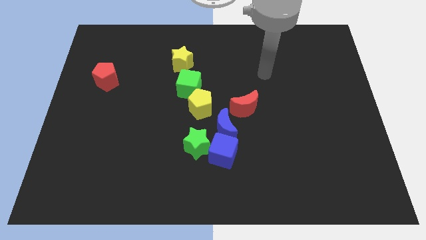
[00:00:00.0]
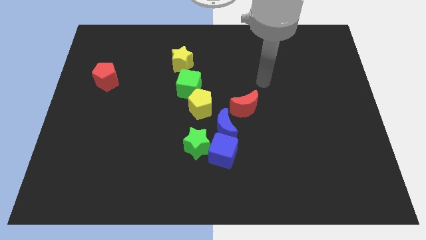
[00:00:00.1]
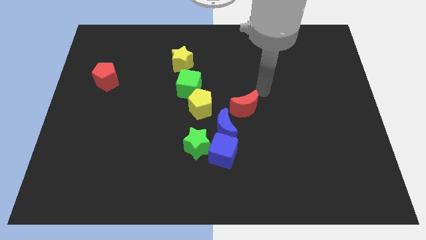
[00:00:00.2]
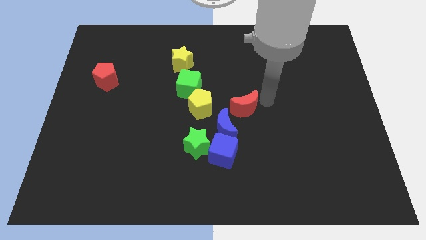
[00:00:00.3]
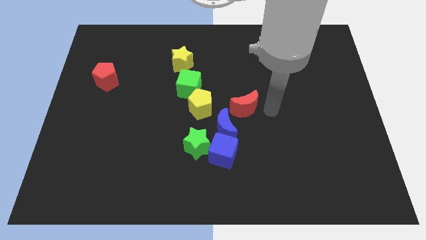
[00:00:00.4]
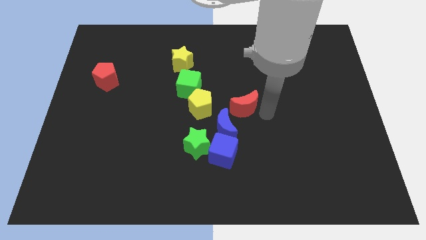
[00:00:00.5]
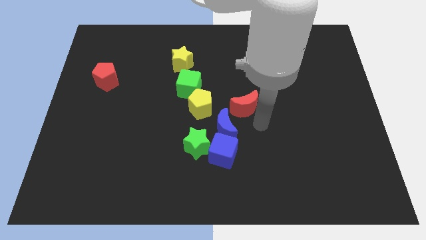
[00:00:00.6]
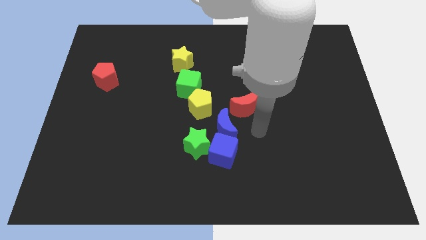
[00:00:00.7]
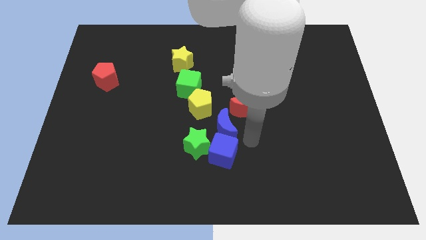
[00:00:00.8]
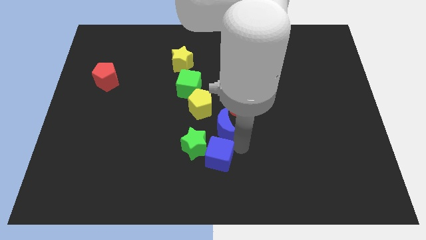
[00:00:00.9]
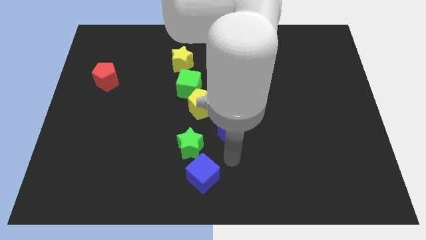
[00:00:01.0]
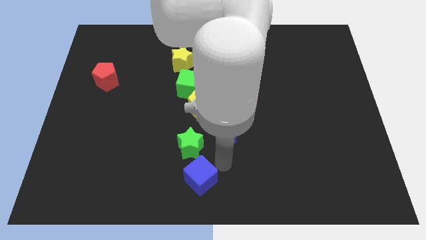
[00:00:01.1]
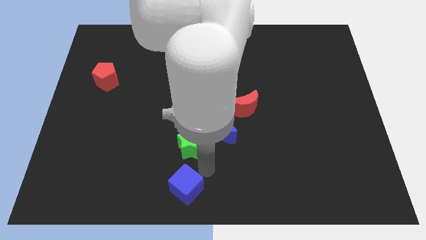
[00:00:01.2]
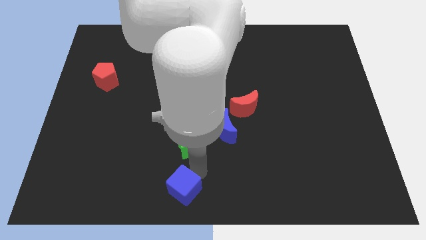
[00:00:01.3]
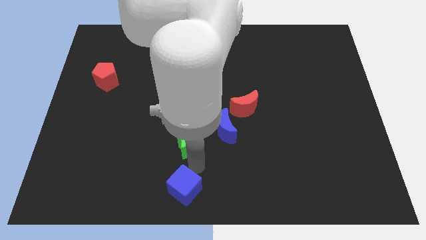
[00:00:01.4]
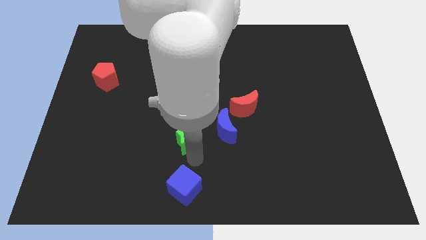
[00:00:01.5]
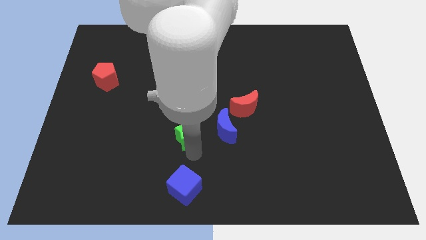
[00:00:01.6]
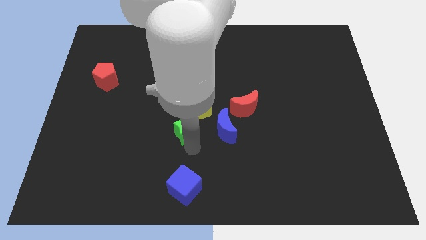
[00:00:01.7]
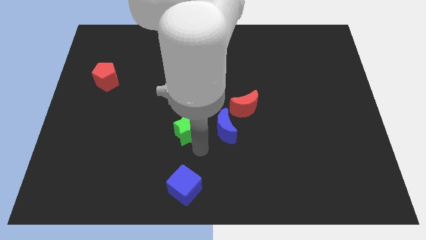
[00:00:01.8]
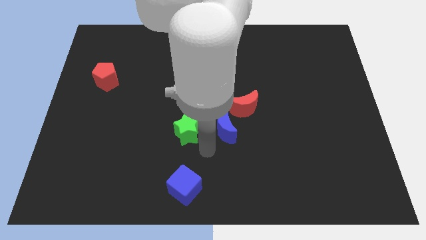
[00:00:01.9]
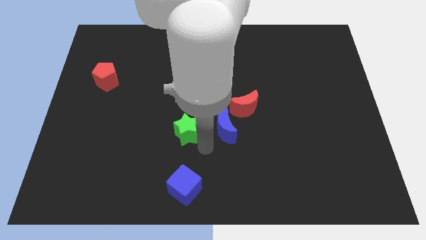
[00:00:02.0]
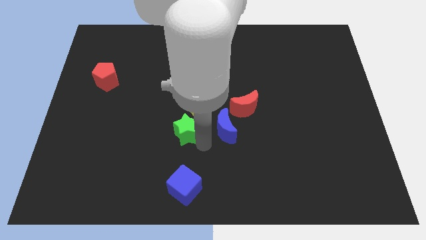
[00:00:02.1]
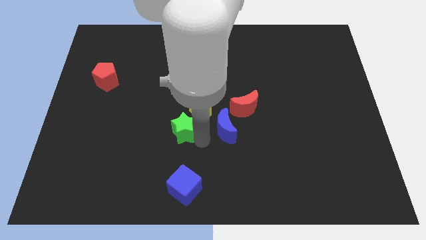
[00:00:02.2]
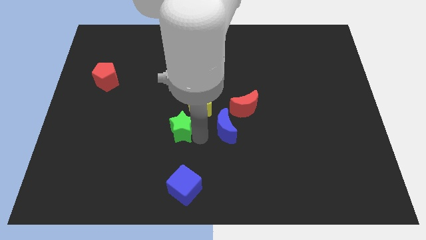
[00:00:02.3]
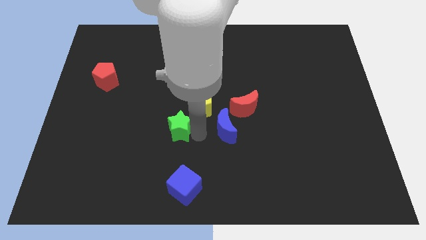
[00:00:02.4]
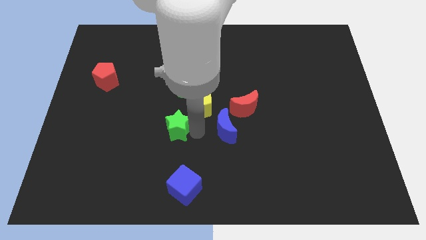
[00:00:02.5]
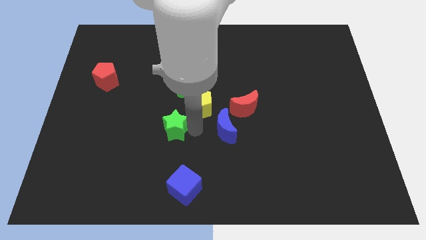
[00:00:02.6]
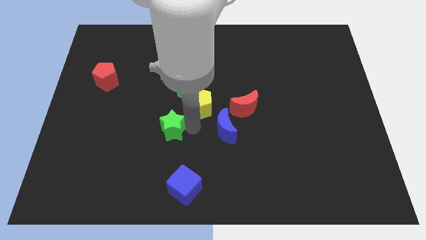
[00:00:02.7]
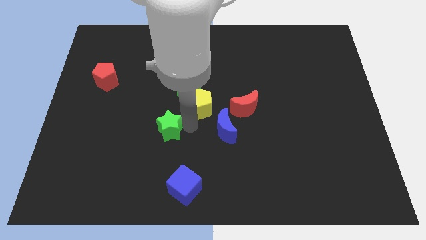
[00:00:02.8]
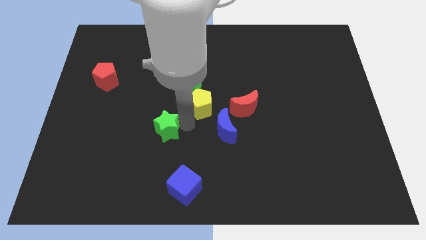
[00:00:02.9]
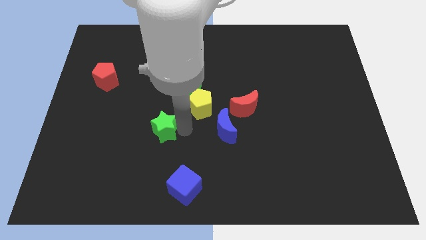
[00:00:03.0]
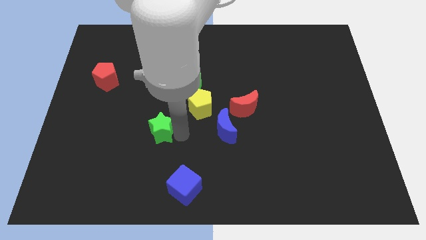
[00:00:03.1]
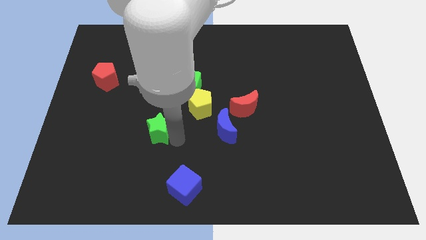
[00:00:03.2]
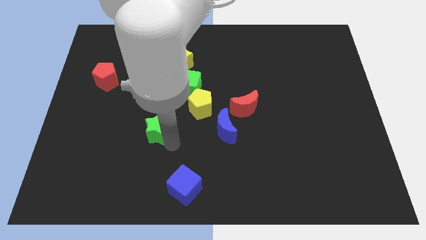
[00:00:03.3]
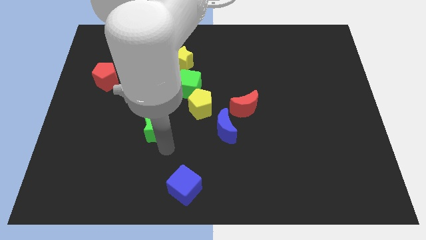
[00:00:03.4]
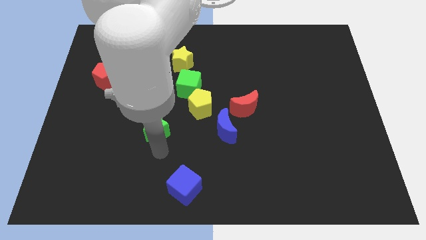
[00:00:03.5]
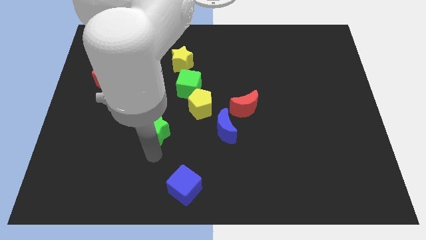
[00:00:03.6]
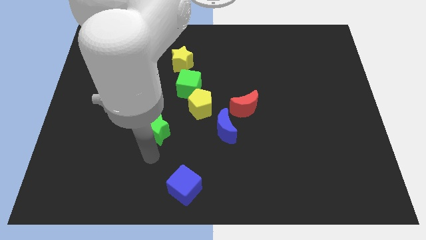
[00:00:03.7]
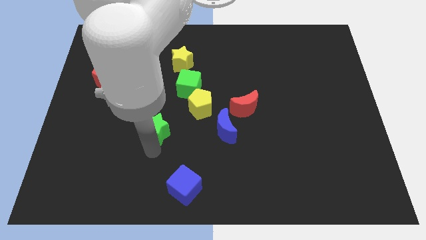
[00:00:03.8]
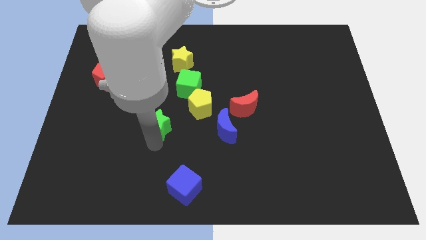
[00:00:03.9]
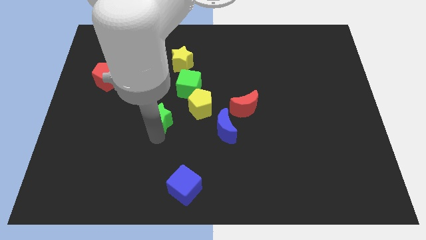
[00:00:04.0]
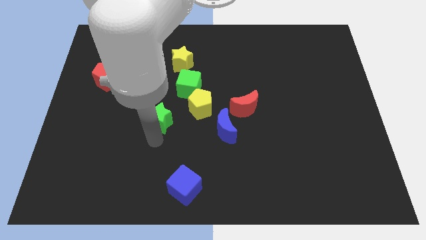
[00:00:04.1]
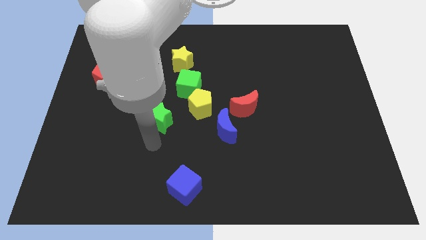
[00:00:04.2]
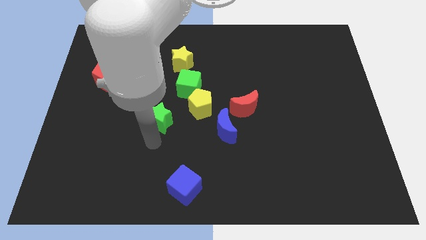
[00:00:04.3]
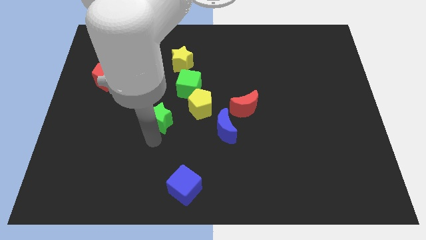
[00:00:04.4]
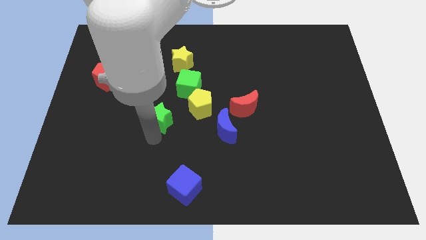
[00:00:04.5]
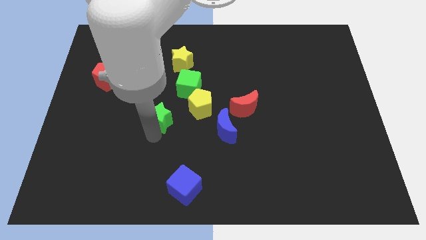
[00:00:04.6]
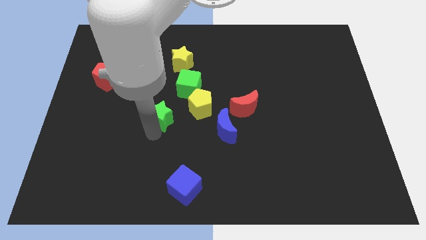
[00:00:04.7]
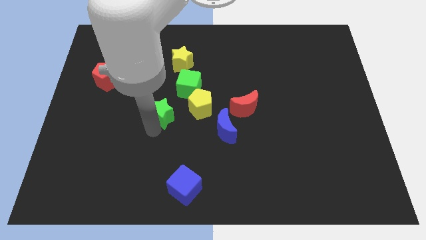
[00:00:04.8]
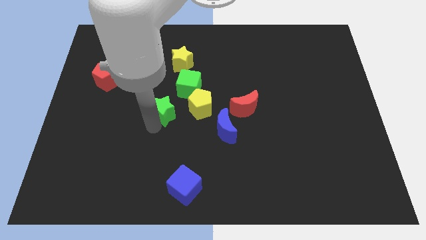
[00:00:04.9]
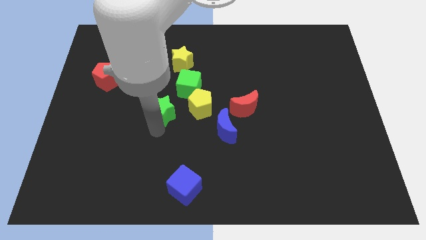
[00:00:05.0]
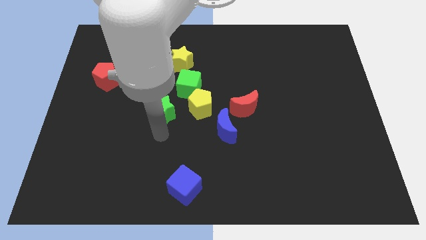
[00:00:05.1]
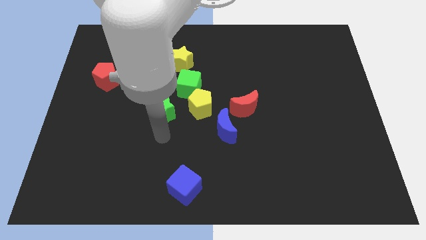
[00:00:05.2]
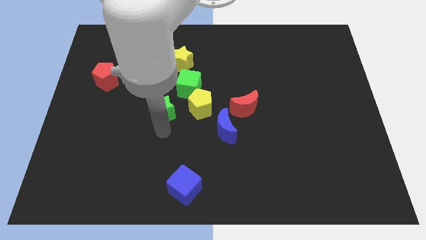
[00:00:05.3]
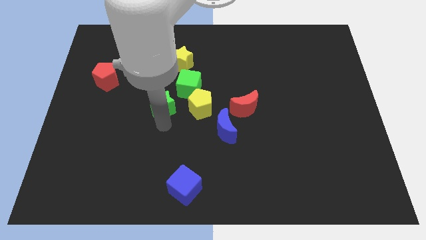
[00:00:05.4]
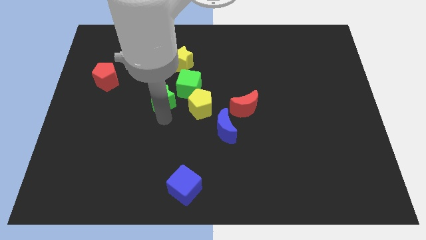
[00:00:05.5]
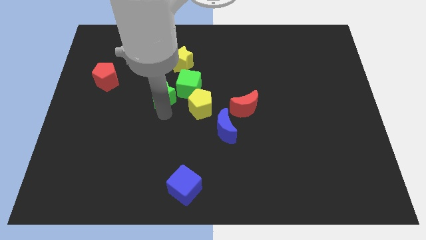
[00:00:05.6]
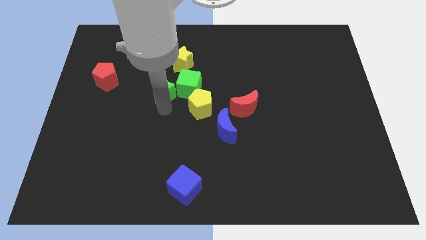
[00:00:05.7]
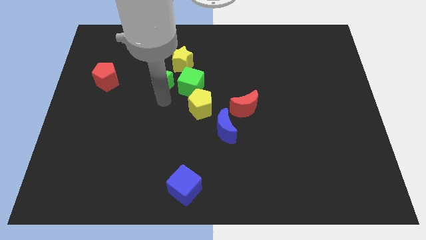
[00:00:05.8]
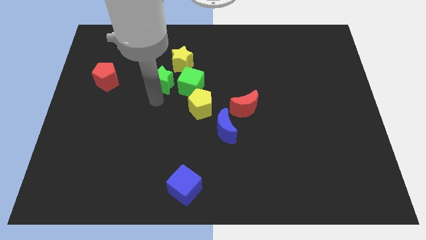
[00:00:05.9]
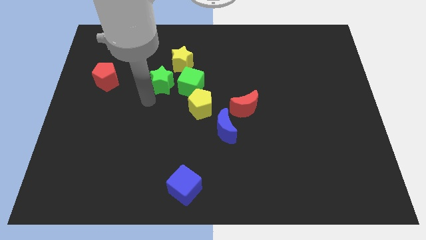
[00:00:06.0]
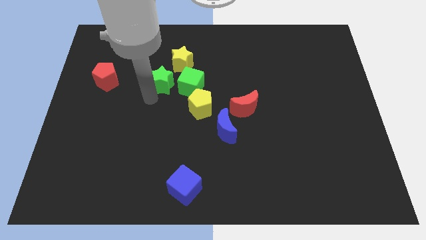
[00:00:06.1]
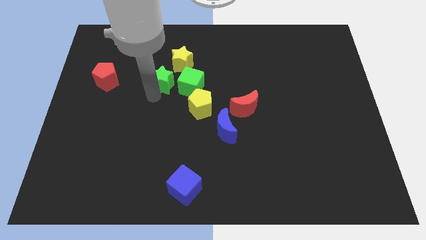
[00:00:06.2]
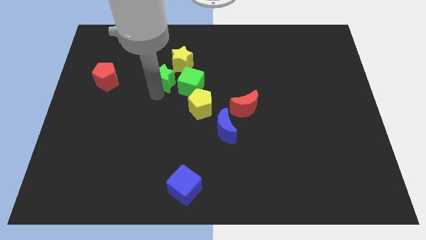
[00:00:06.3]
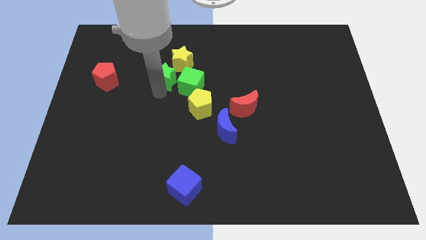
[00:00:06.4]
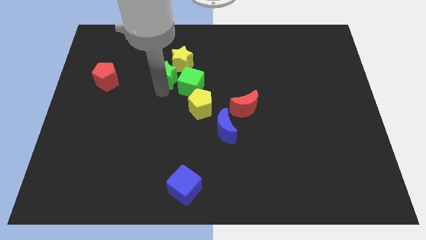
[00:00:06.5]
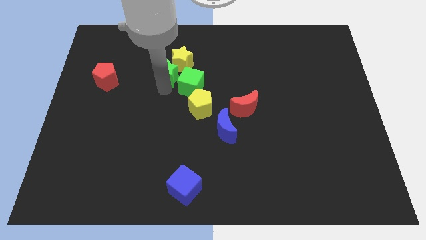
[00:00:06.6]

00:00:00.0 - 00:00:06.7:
push the green star to the yellow star
